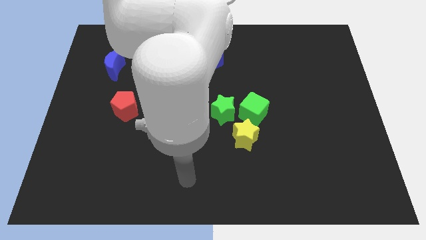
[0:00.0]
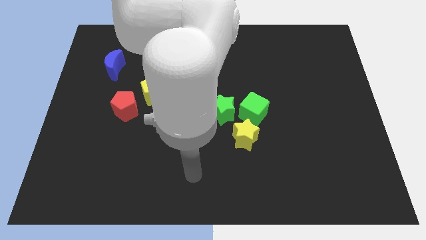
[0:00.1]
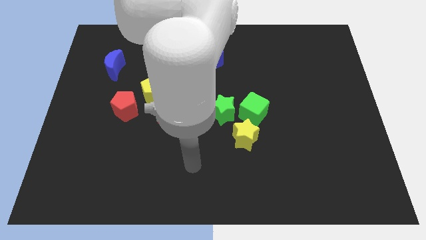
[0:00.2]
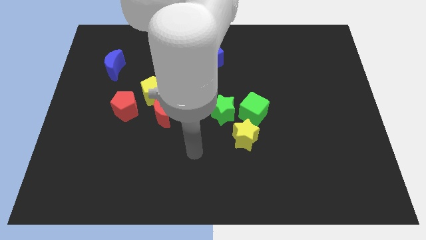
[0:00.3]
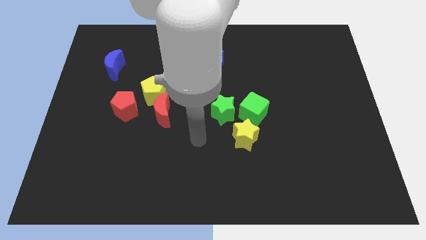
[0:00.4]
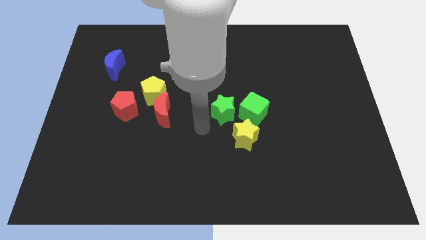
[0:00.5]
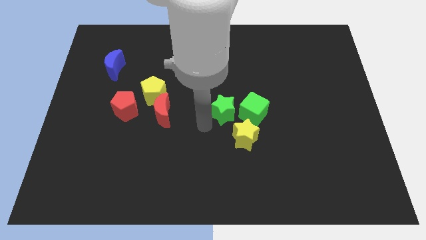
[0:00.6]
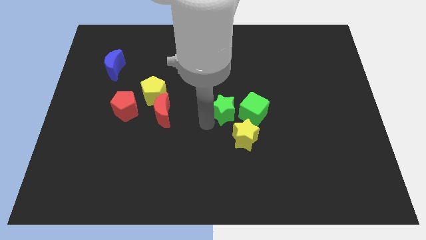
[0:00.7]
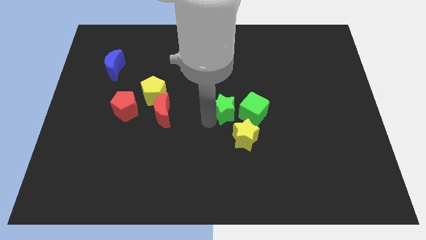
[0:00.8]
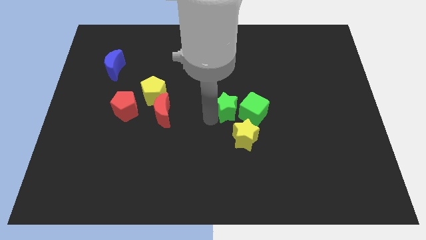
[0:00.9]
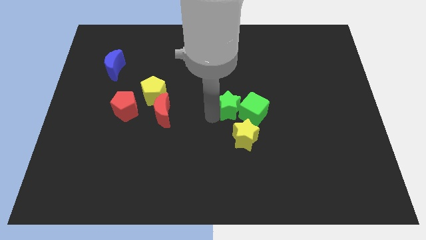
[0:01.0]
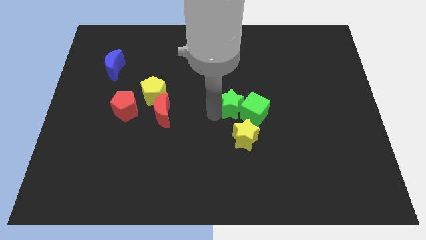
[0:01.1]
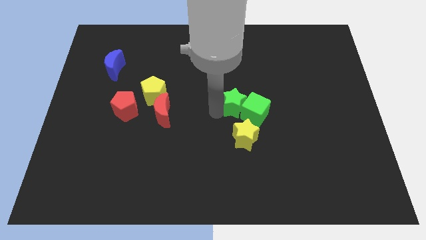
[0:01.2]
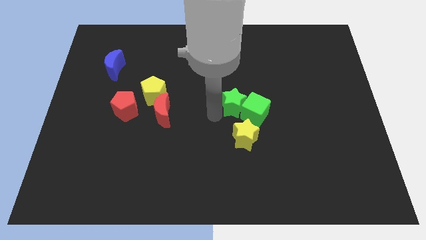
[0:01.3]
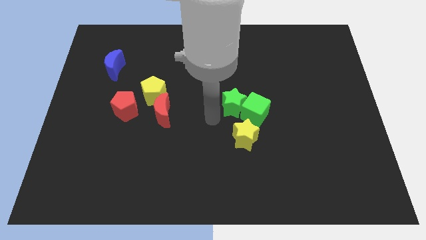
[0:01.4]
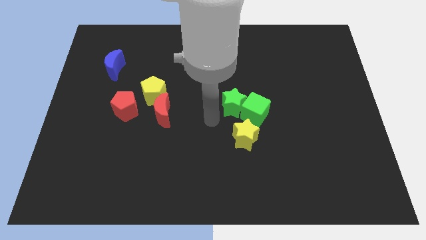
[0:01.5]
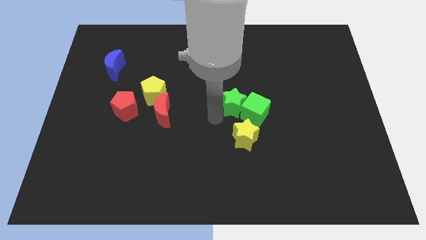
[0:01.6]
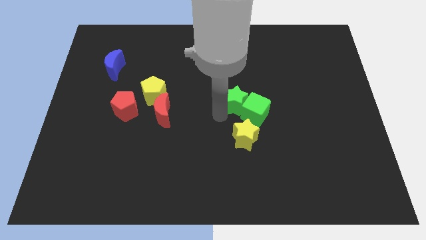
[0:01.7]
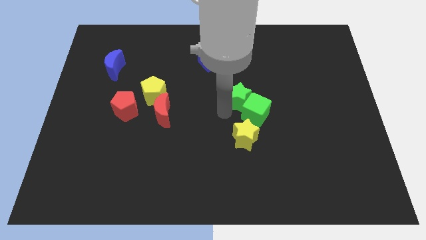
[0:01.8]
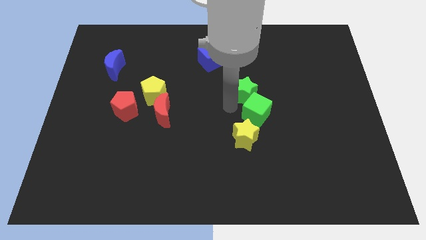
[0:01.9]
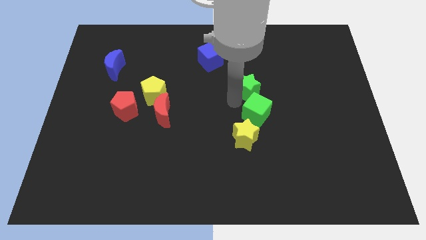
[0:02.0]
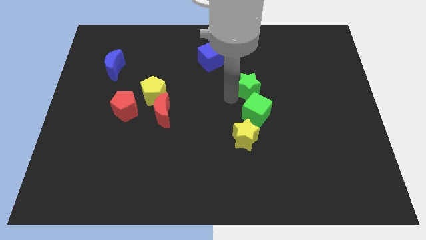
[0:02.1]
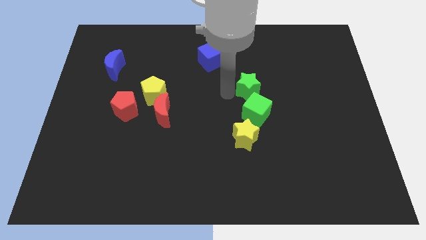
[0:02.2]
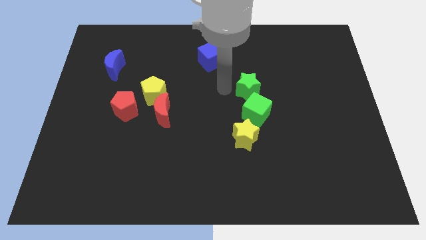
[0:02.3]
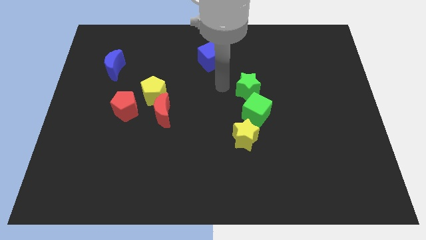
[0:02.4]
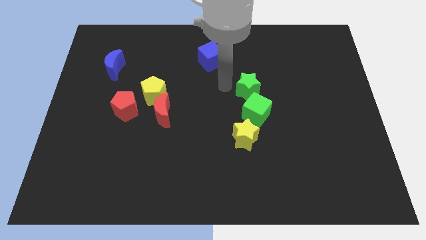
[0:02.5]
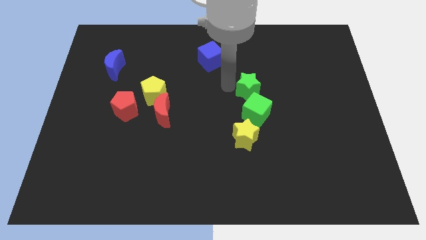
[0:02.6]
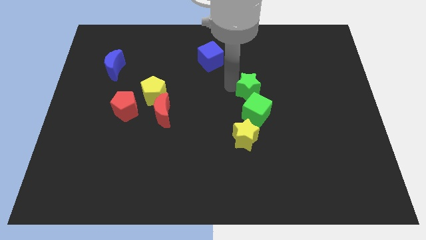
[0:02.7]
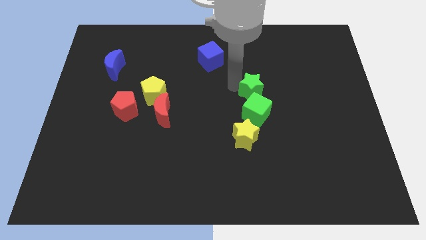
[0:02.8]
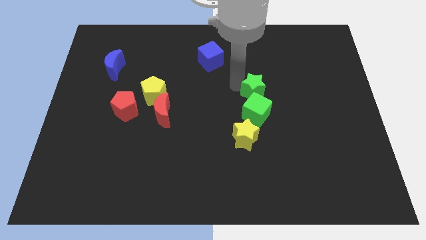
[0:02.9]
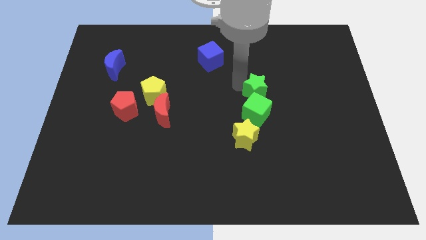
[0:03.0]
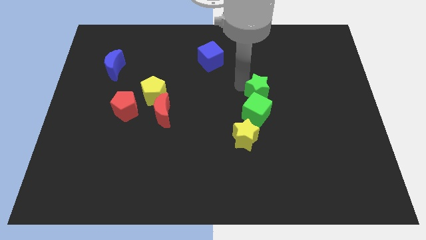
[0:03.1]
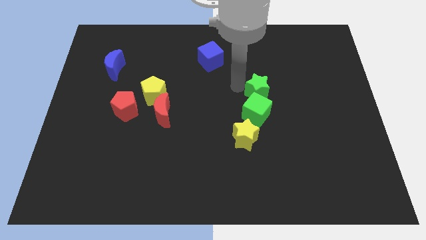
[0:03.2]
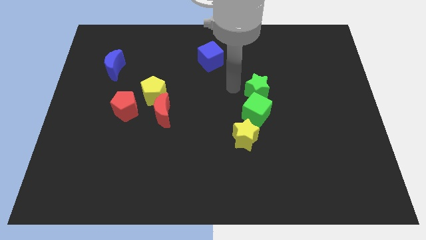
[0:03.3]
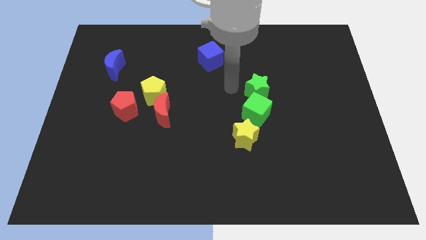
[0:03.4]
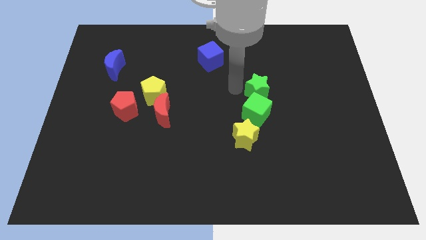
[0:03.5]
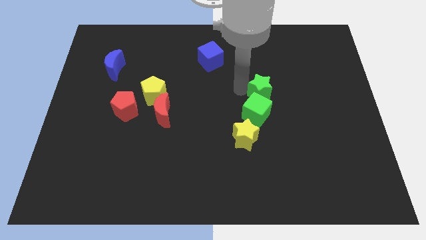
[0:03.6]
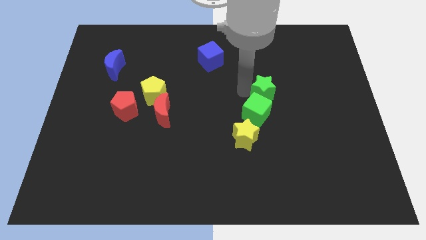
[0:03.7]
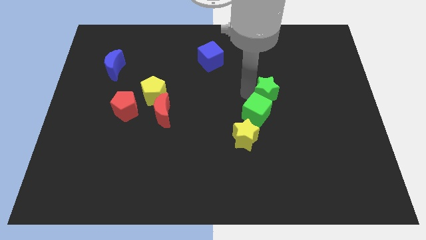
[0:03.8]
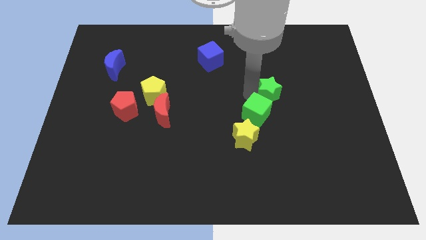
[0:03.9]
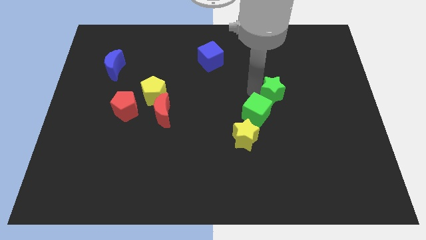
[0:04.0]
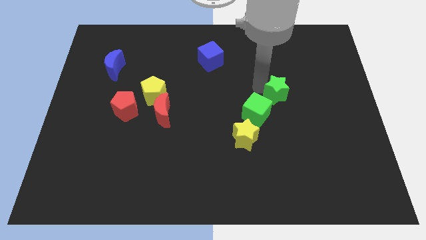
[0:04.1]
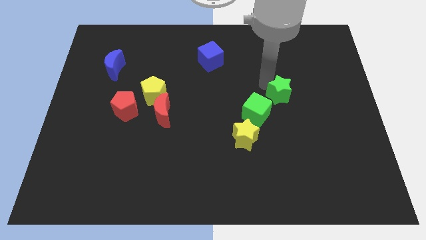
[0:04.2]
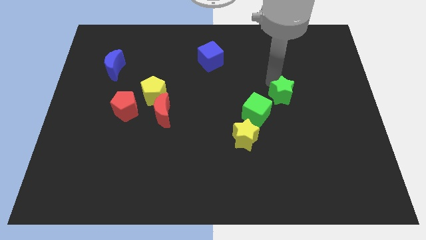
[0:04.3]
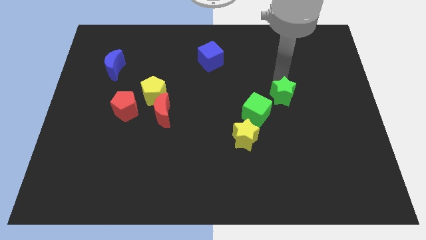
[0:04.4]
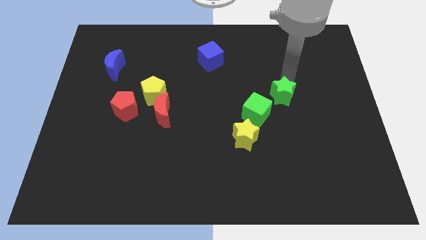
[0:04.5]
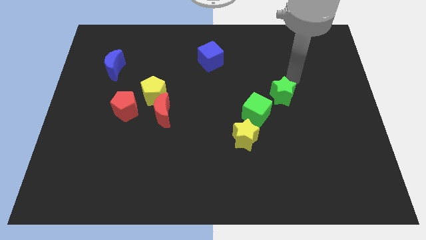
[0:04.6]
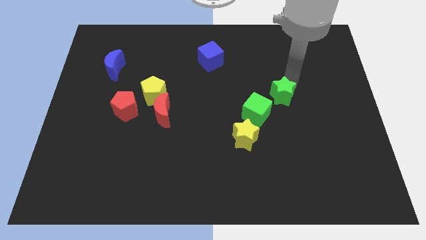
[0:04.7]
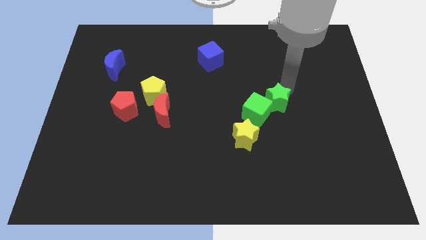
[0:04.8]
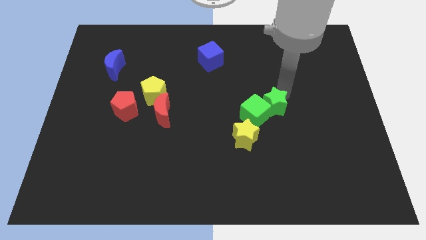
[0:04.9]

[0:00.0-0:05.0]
slide the green star to the top right side of the yellow star

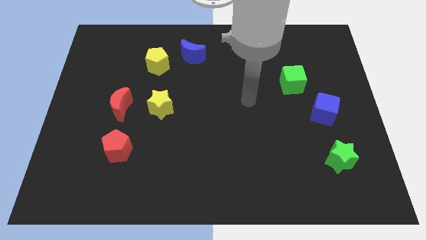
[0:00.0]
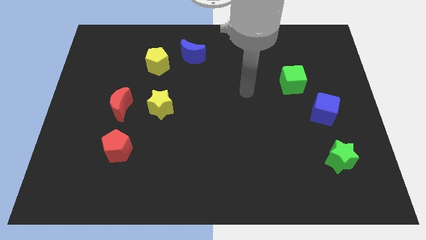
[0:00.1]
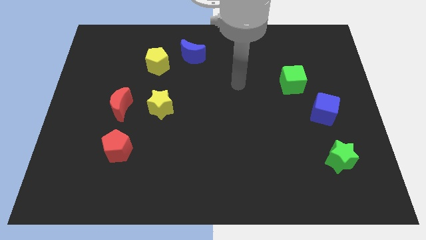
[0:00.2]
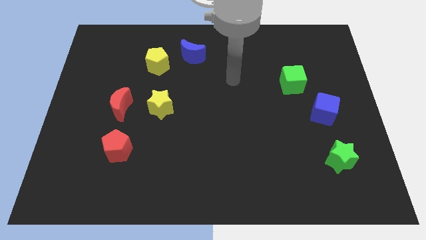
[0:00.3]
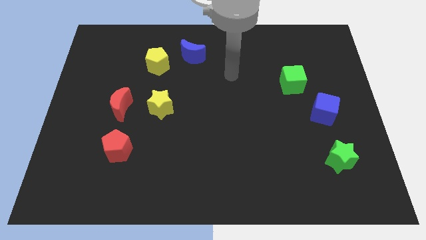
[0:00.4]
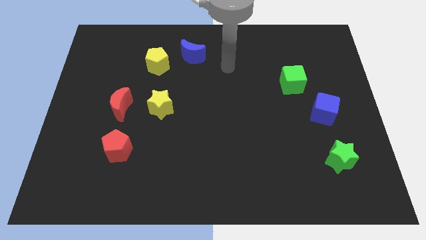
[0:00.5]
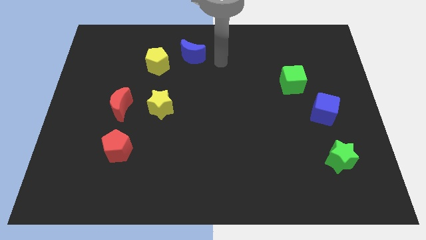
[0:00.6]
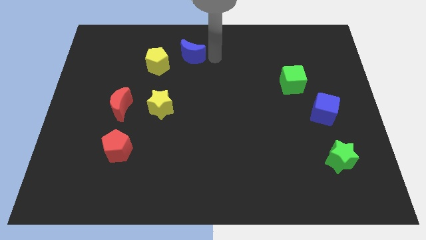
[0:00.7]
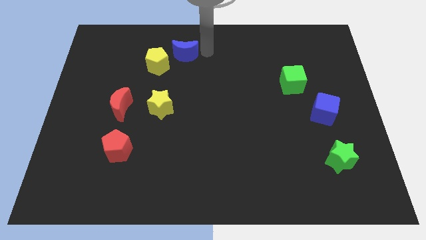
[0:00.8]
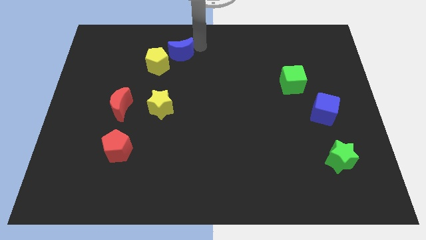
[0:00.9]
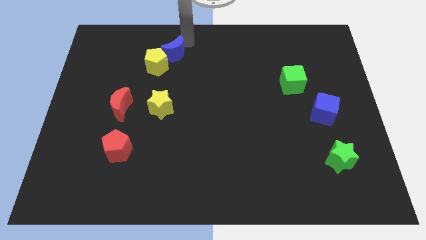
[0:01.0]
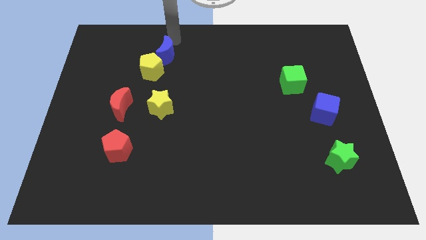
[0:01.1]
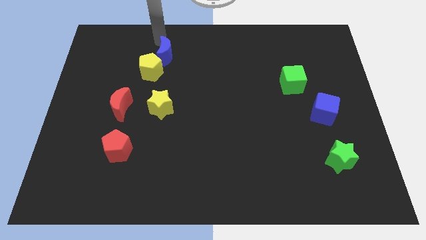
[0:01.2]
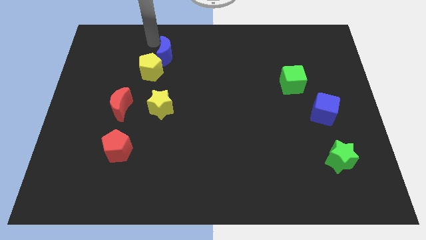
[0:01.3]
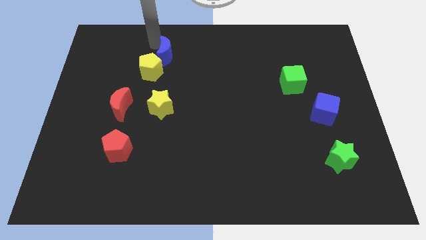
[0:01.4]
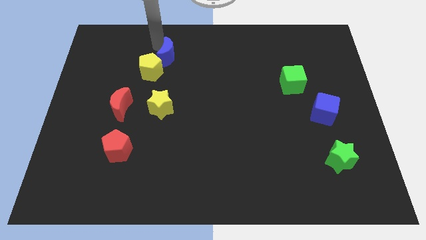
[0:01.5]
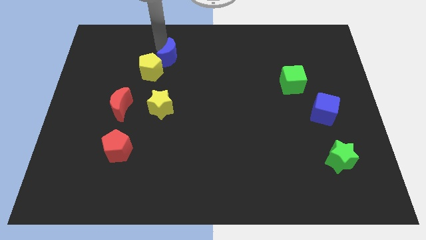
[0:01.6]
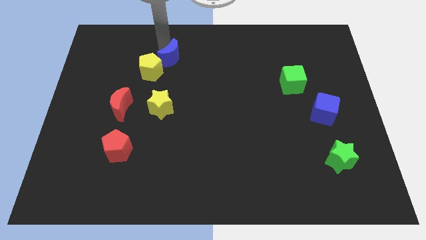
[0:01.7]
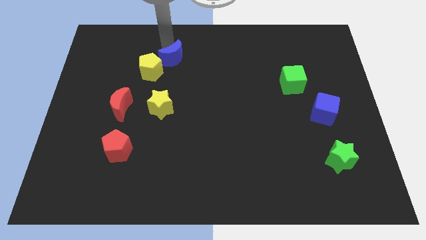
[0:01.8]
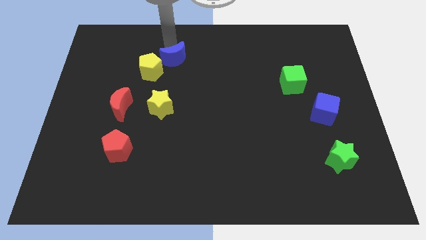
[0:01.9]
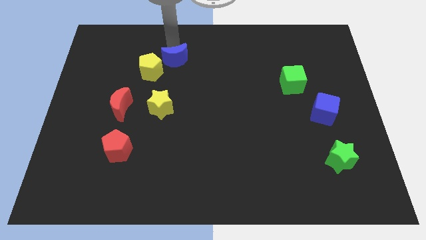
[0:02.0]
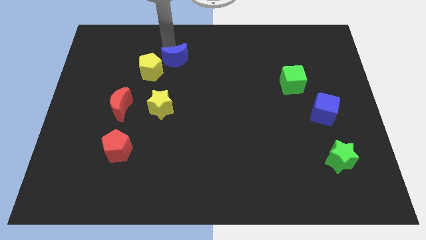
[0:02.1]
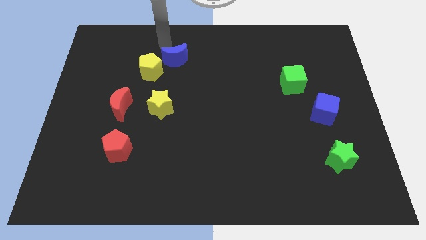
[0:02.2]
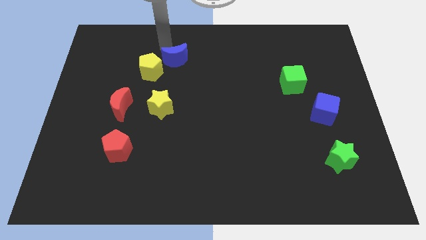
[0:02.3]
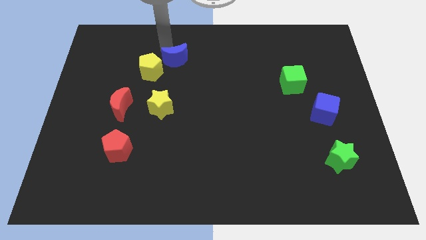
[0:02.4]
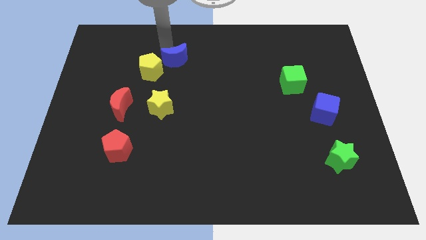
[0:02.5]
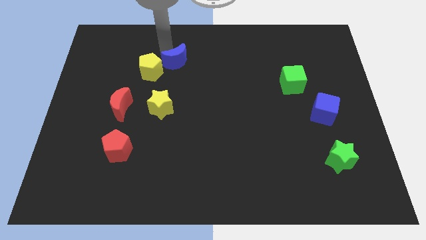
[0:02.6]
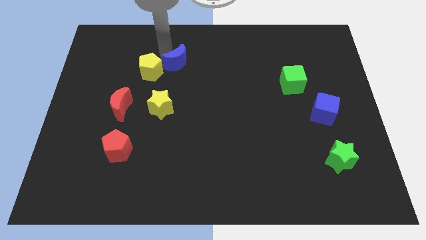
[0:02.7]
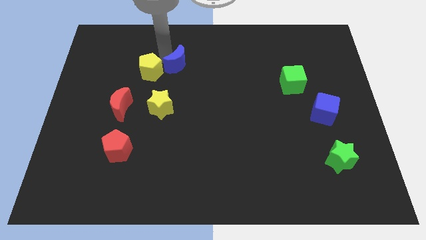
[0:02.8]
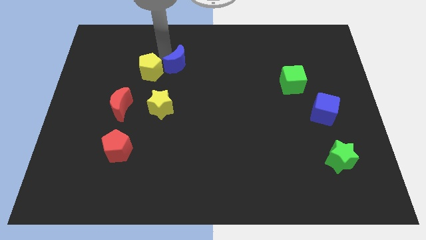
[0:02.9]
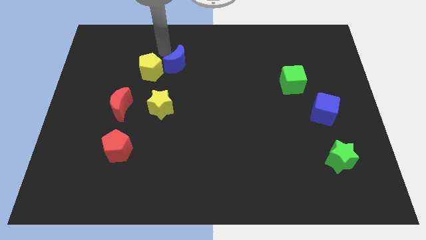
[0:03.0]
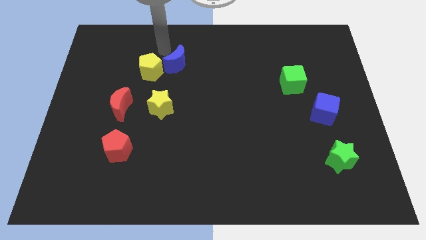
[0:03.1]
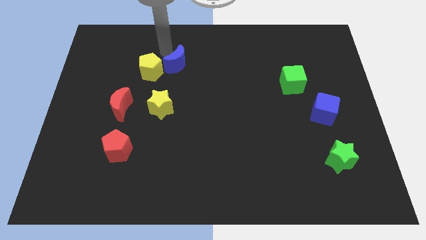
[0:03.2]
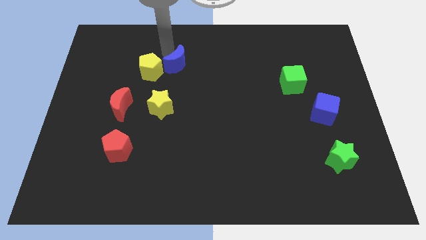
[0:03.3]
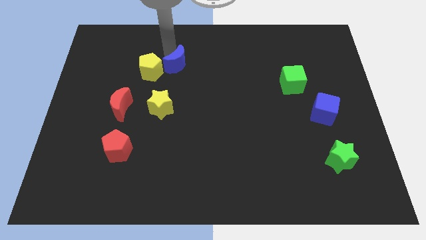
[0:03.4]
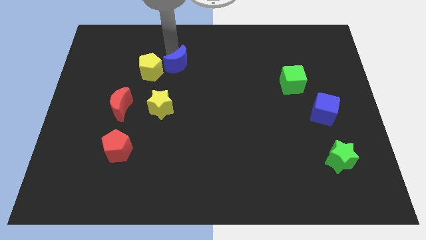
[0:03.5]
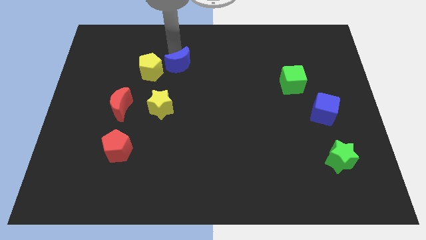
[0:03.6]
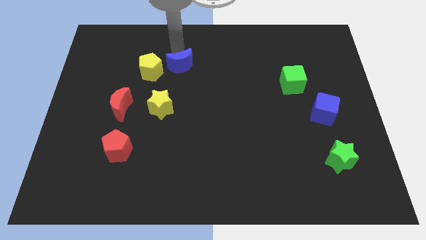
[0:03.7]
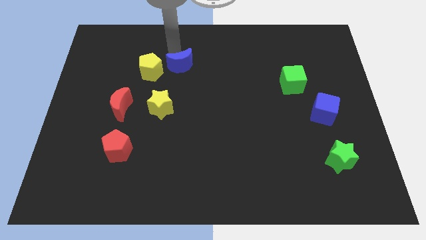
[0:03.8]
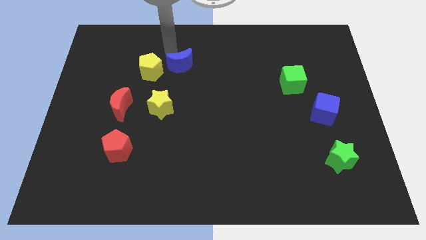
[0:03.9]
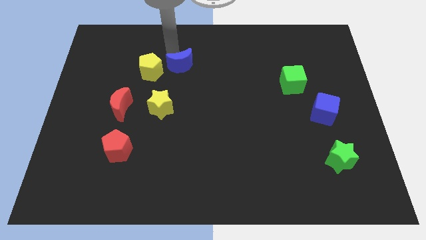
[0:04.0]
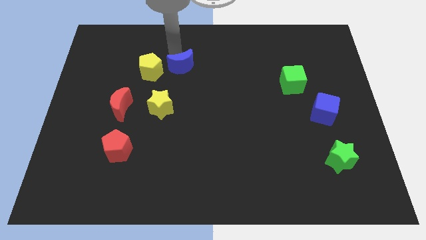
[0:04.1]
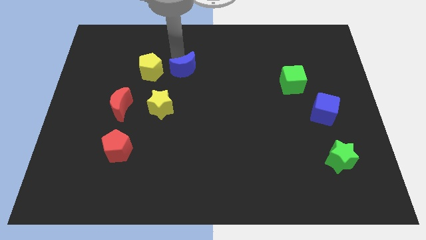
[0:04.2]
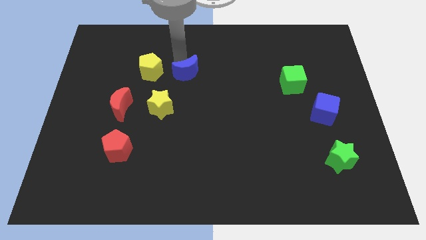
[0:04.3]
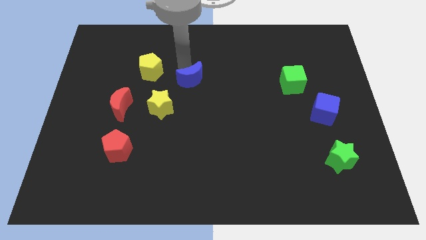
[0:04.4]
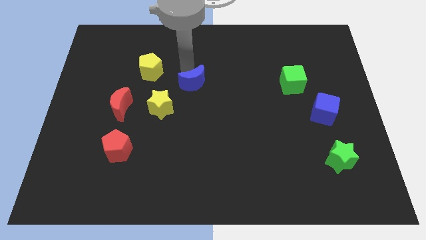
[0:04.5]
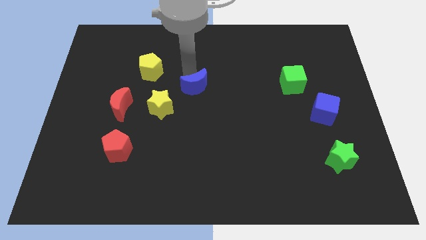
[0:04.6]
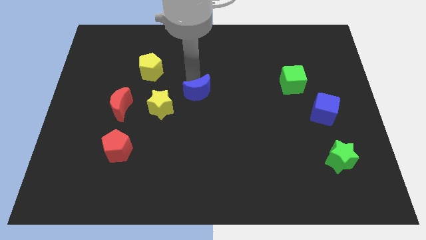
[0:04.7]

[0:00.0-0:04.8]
move the blue moon right of the yellow star
